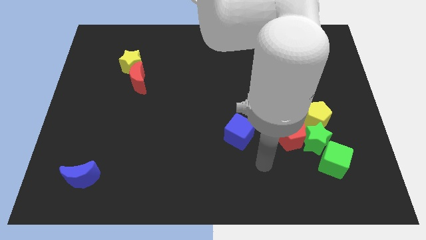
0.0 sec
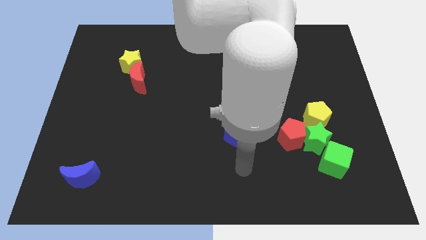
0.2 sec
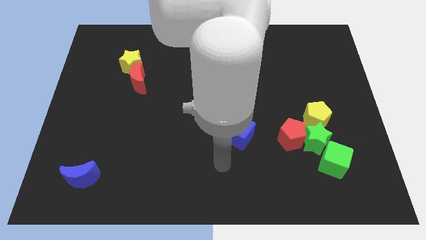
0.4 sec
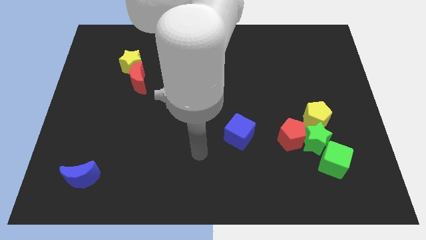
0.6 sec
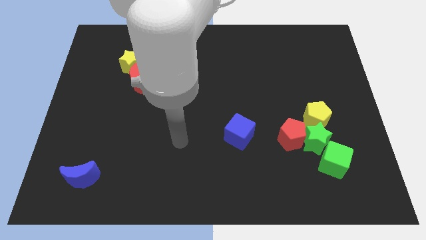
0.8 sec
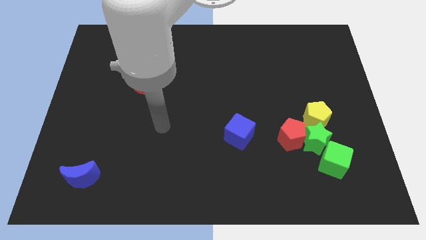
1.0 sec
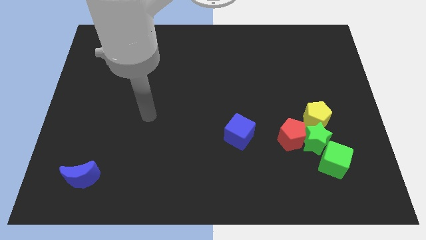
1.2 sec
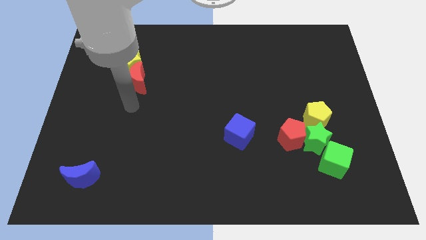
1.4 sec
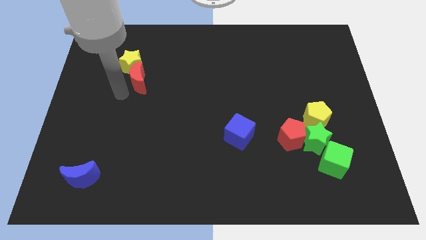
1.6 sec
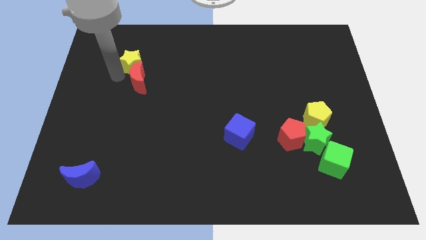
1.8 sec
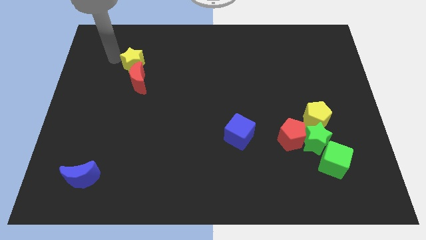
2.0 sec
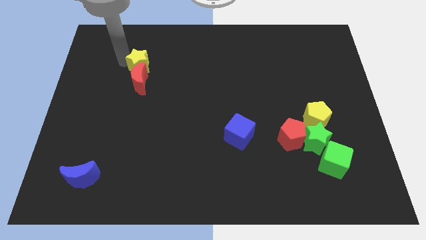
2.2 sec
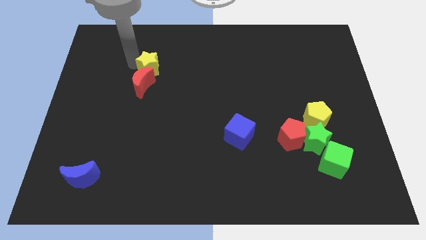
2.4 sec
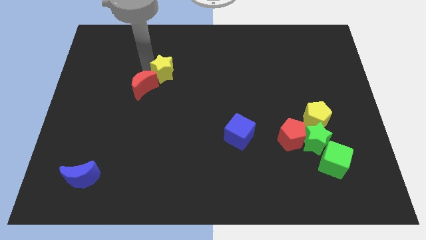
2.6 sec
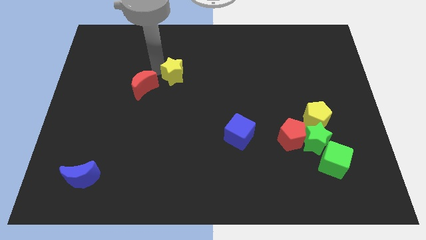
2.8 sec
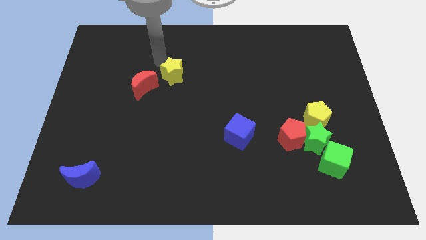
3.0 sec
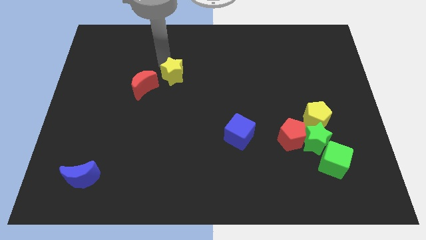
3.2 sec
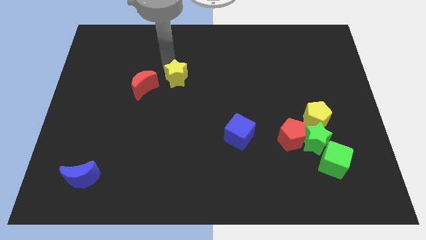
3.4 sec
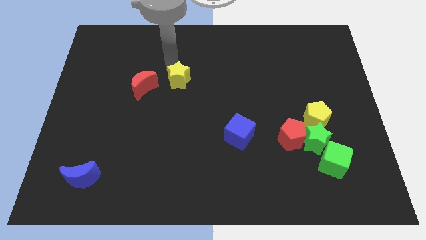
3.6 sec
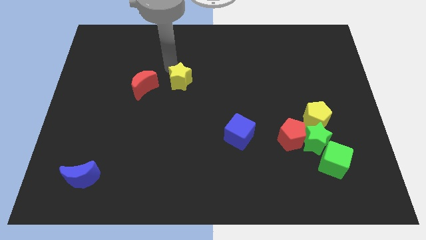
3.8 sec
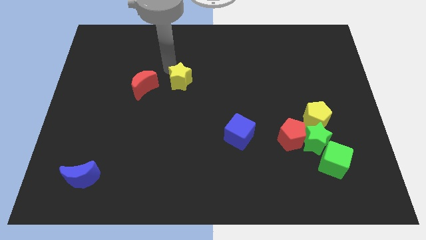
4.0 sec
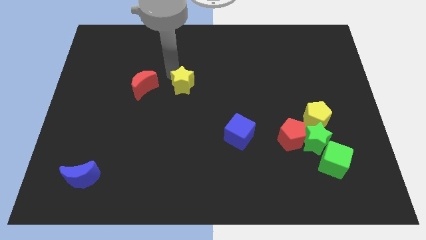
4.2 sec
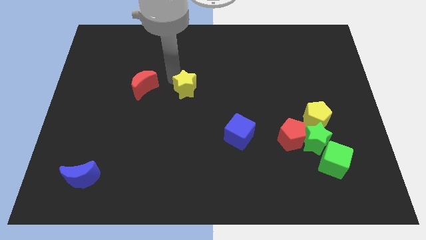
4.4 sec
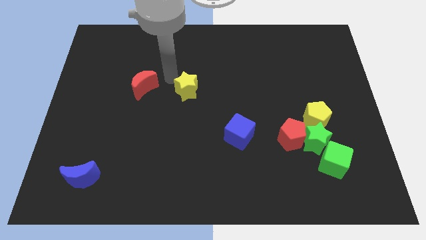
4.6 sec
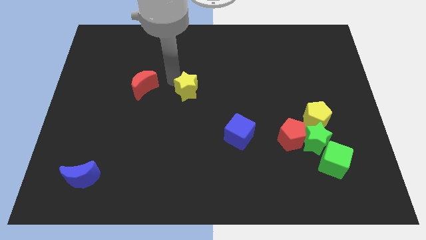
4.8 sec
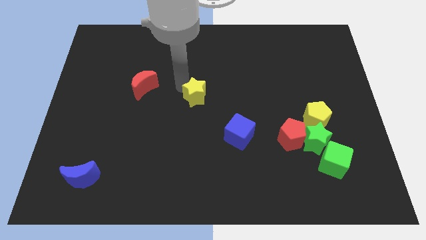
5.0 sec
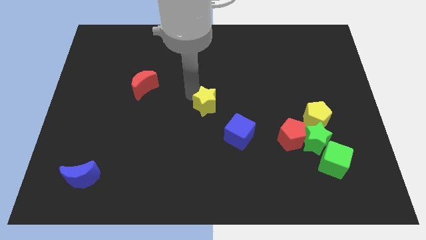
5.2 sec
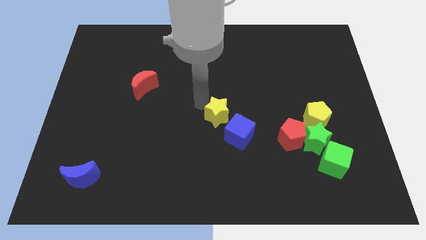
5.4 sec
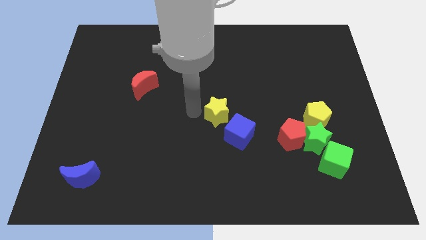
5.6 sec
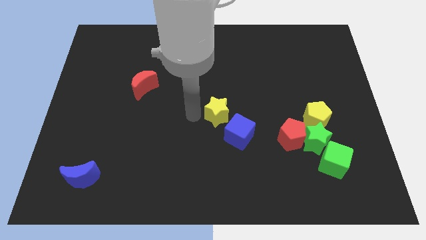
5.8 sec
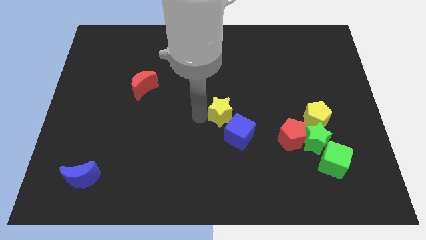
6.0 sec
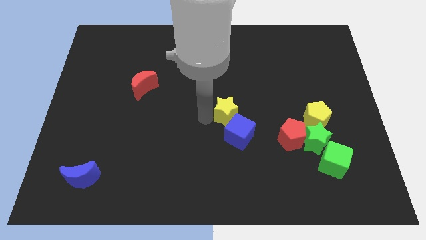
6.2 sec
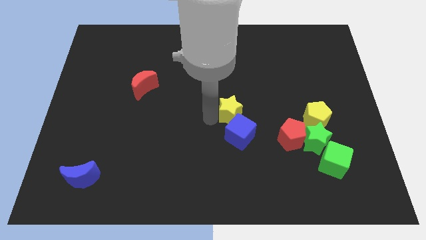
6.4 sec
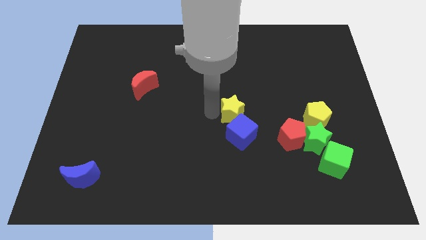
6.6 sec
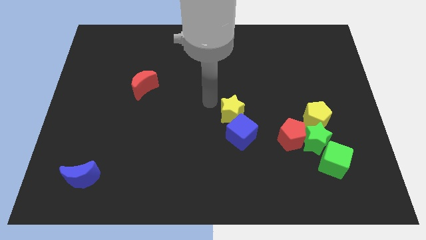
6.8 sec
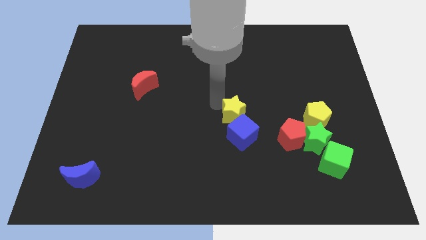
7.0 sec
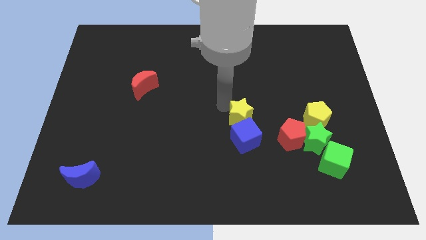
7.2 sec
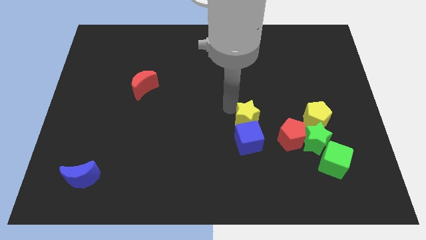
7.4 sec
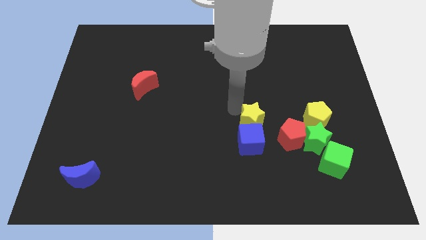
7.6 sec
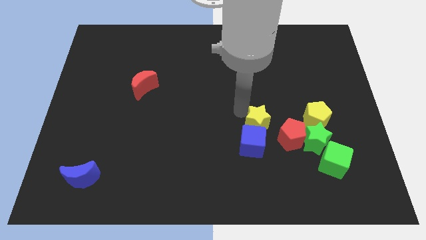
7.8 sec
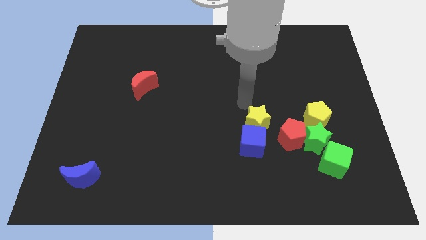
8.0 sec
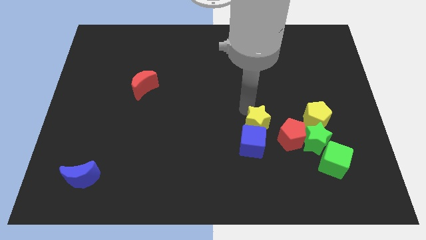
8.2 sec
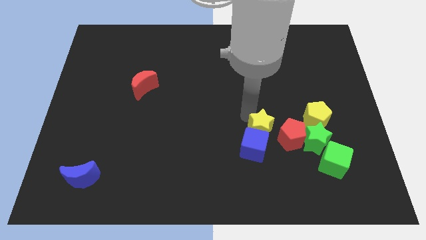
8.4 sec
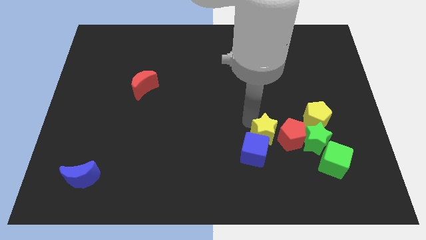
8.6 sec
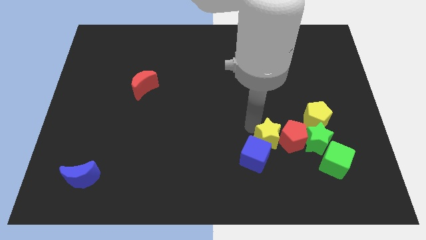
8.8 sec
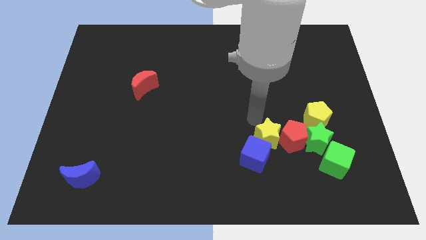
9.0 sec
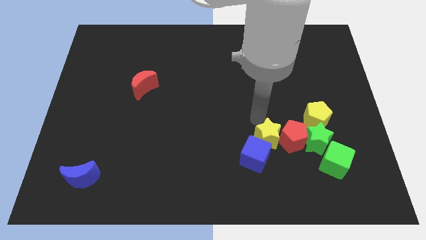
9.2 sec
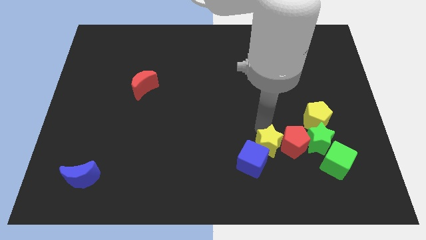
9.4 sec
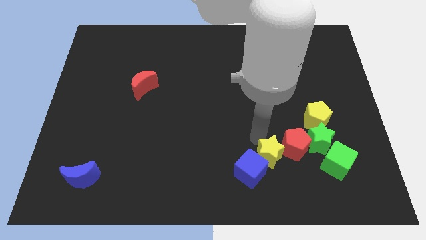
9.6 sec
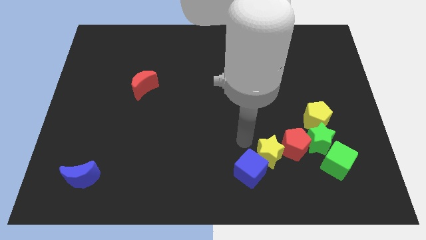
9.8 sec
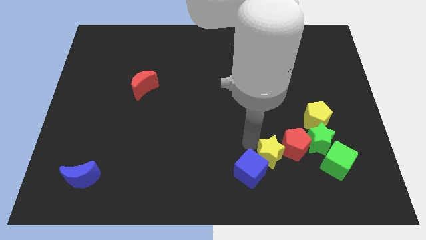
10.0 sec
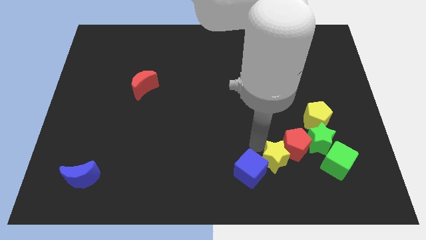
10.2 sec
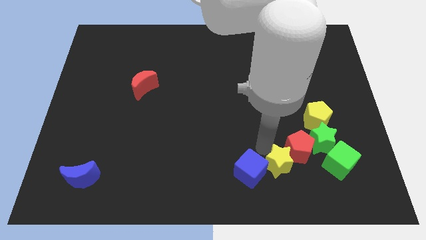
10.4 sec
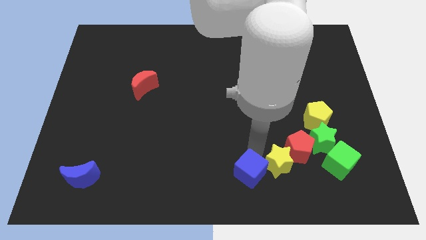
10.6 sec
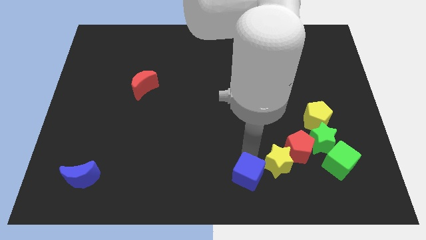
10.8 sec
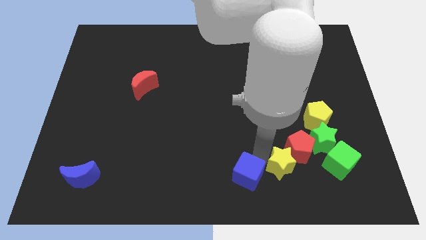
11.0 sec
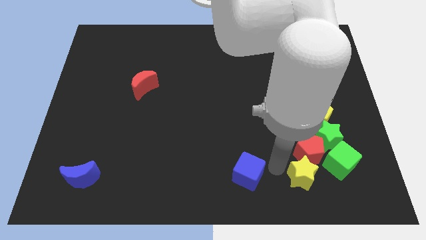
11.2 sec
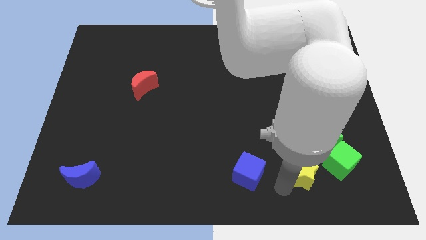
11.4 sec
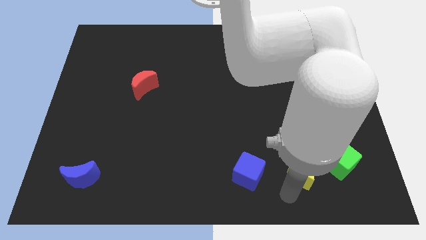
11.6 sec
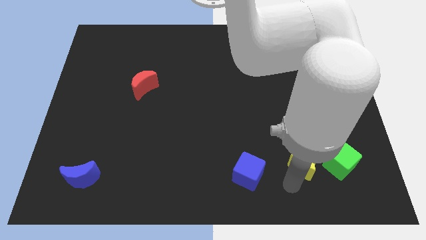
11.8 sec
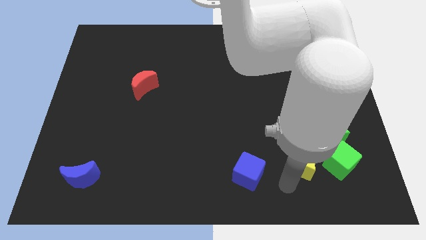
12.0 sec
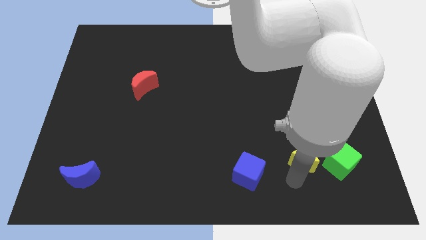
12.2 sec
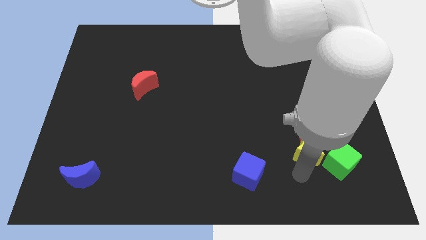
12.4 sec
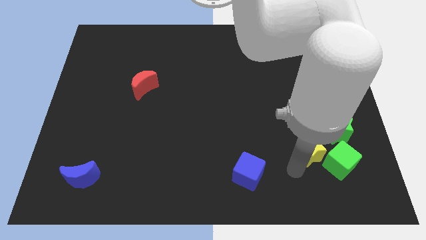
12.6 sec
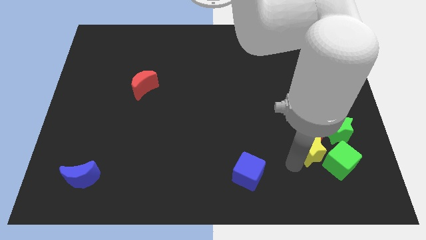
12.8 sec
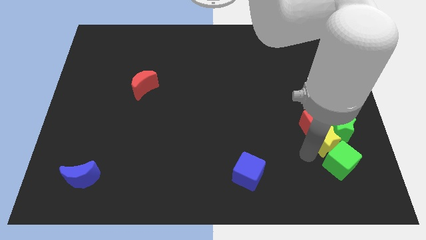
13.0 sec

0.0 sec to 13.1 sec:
put the yellow star towards the green star

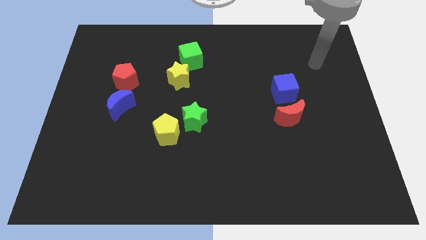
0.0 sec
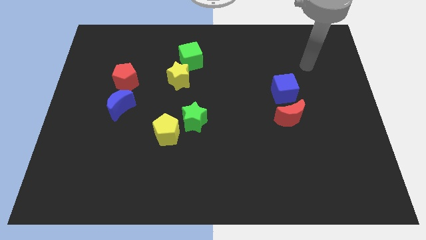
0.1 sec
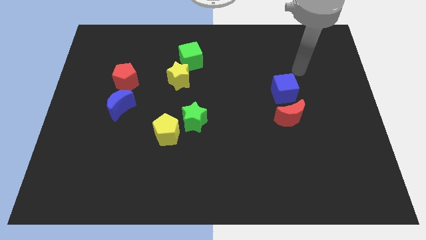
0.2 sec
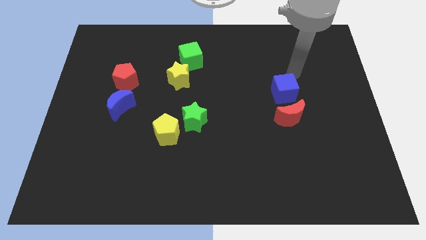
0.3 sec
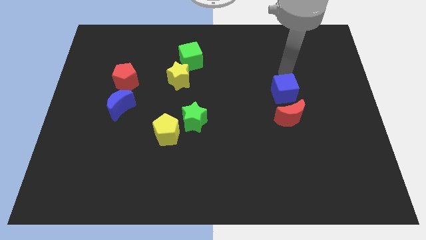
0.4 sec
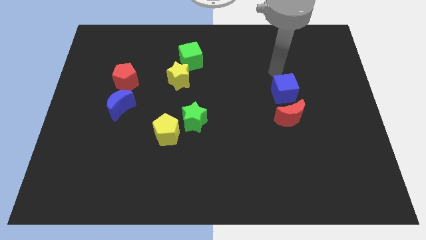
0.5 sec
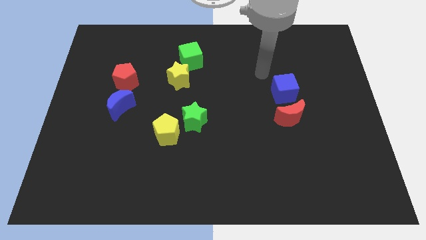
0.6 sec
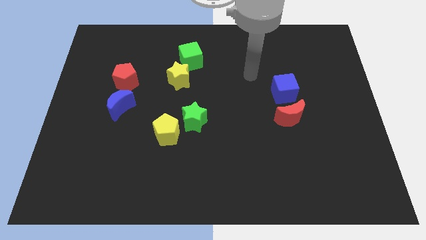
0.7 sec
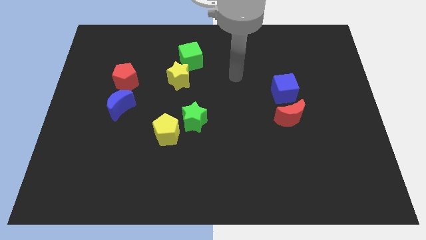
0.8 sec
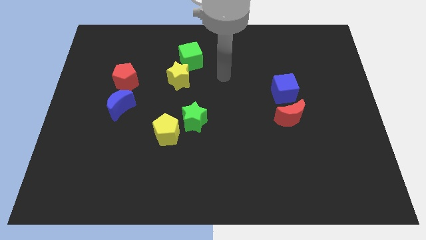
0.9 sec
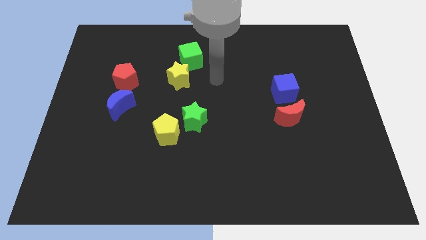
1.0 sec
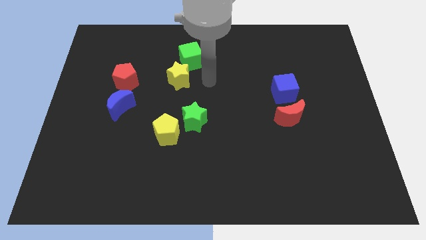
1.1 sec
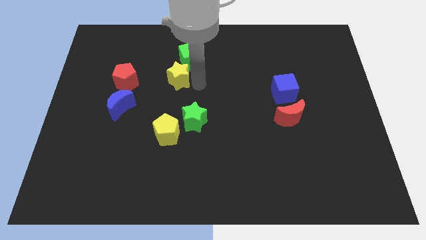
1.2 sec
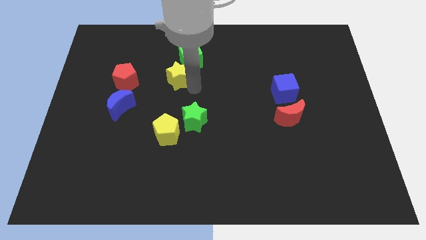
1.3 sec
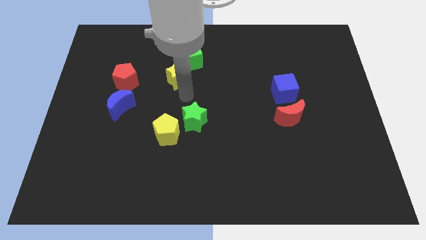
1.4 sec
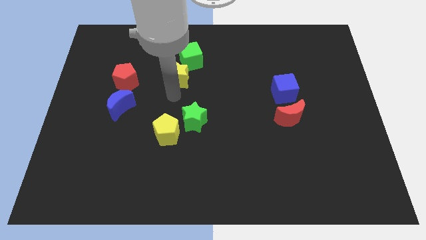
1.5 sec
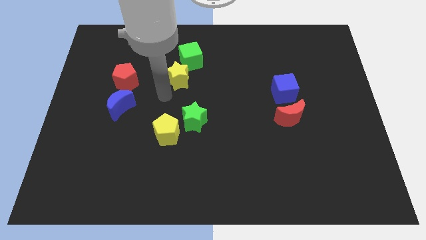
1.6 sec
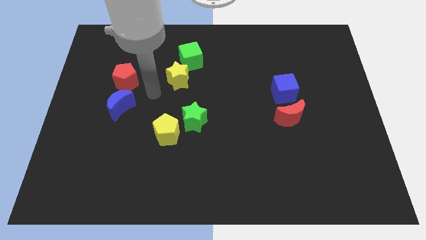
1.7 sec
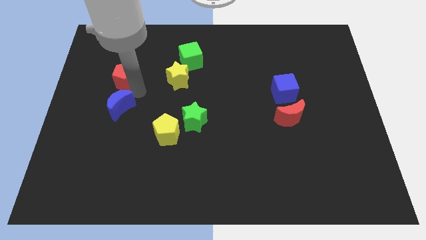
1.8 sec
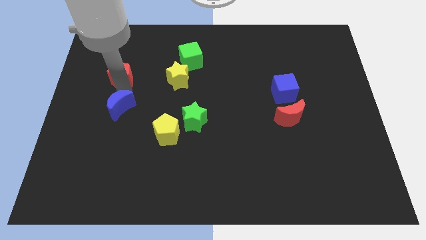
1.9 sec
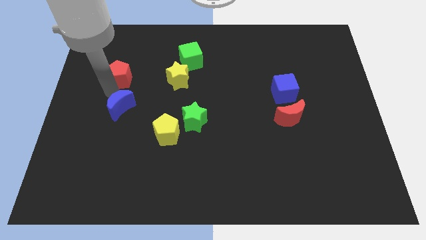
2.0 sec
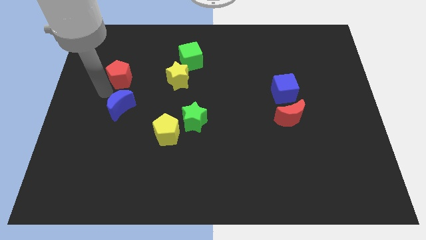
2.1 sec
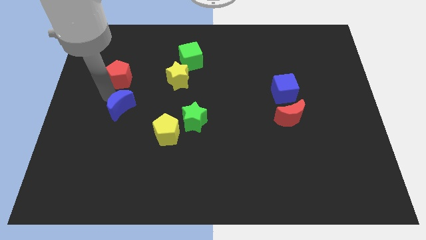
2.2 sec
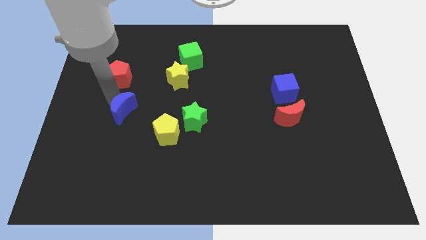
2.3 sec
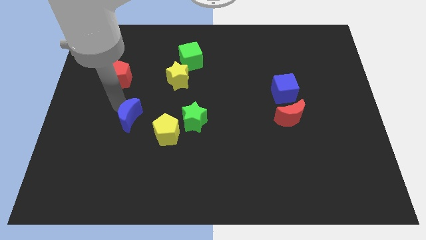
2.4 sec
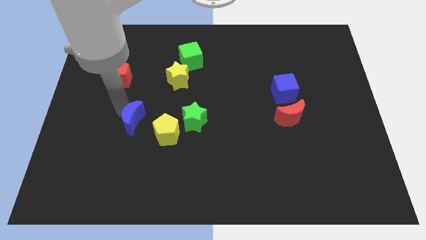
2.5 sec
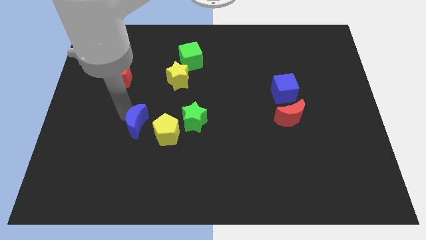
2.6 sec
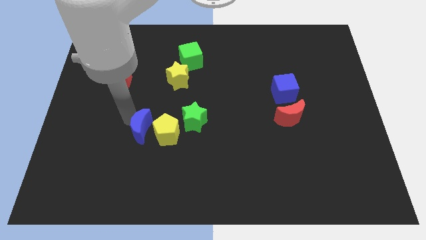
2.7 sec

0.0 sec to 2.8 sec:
move the blue moon to the yellow pentagon
